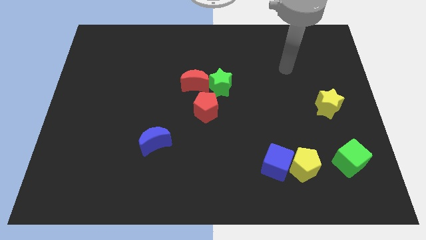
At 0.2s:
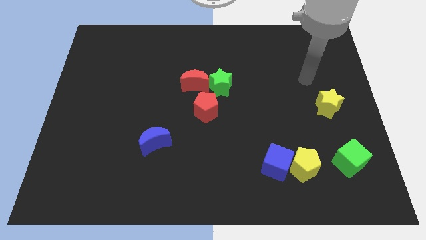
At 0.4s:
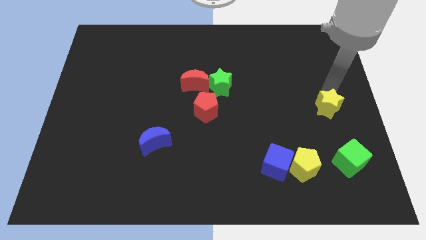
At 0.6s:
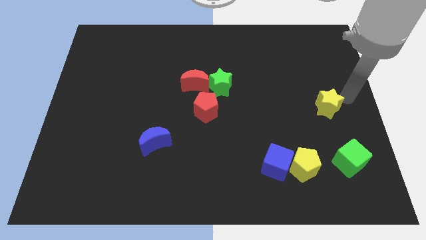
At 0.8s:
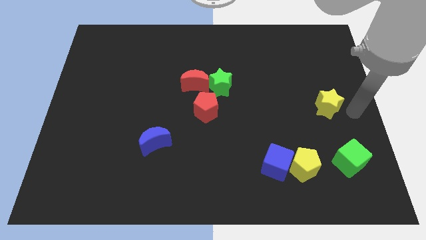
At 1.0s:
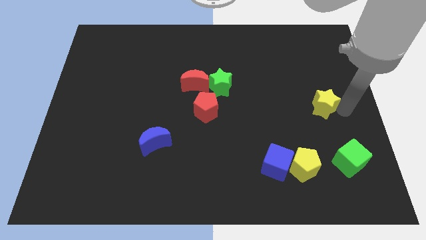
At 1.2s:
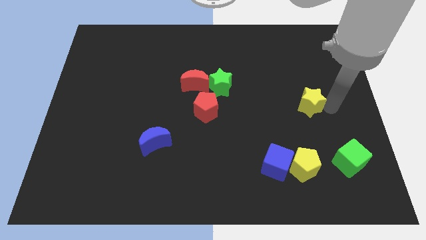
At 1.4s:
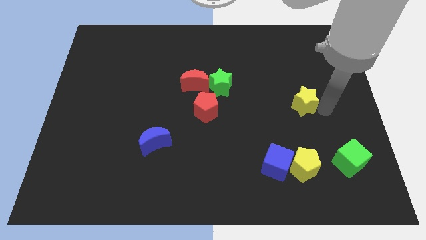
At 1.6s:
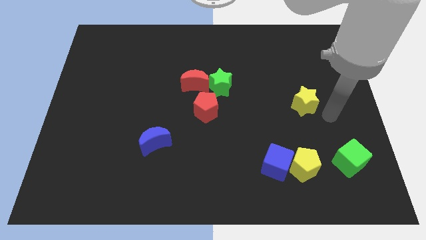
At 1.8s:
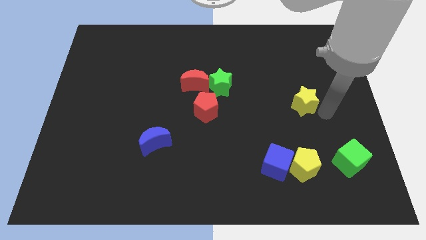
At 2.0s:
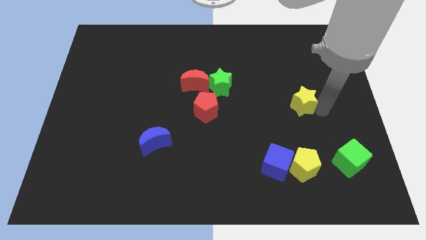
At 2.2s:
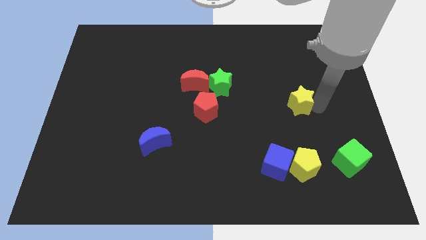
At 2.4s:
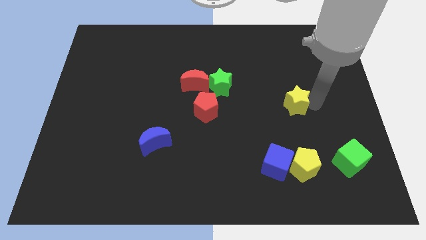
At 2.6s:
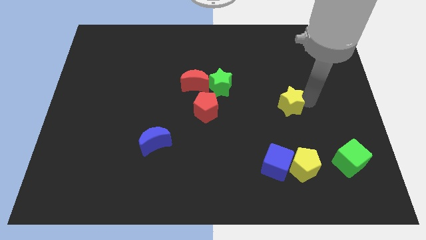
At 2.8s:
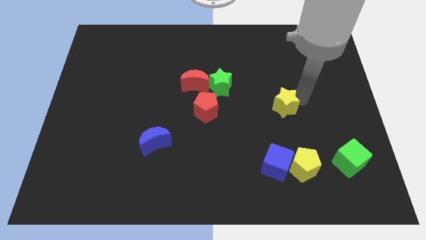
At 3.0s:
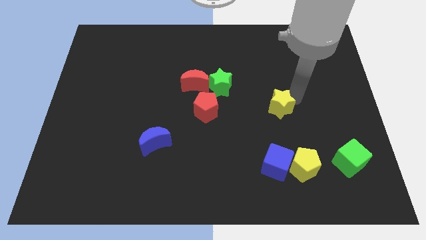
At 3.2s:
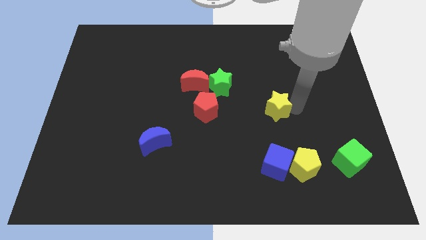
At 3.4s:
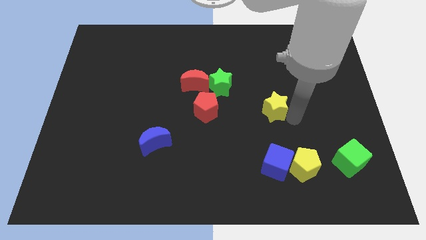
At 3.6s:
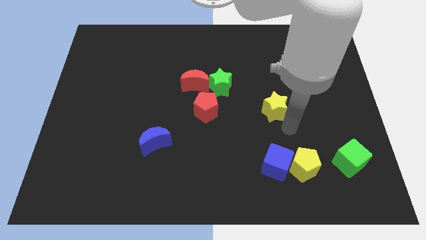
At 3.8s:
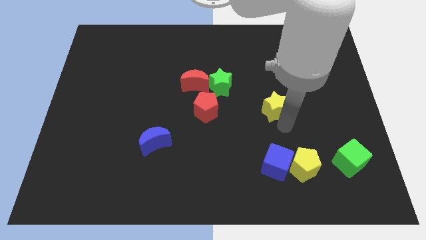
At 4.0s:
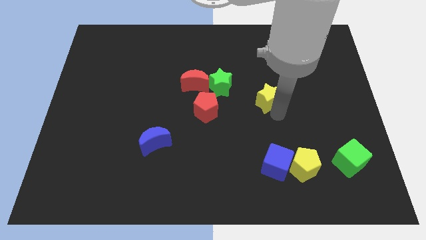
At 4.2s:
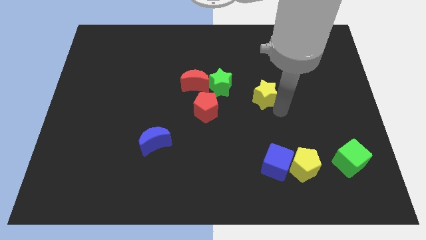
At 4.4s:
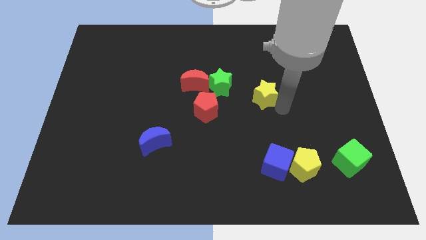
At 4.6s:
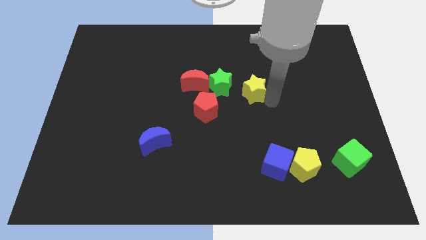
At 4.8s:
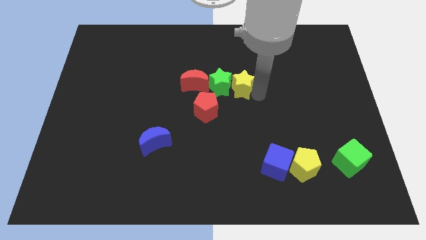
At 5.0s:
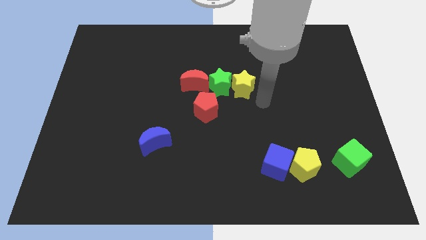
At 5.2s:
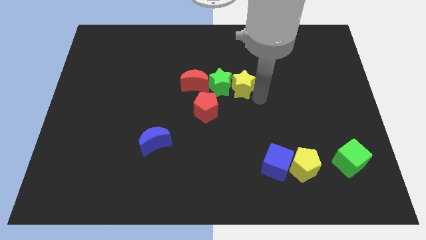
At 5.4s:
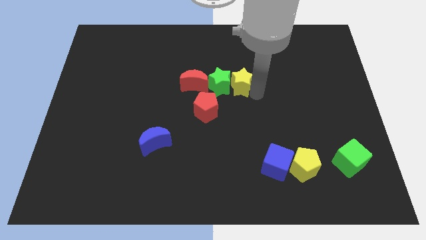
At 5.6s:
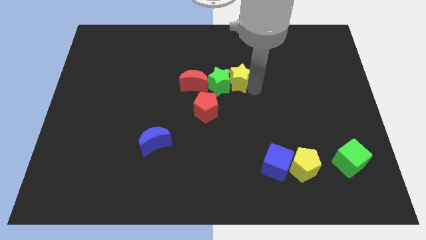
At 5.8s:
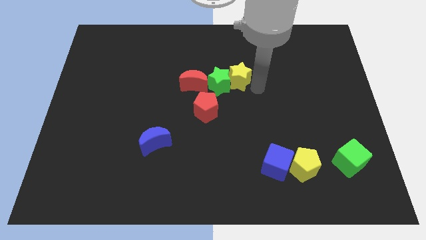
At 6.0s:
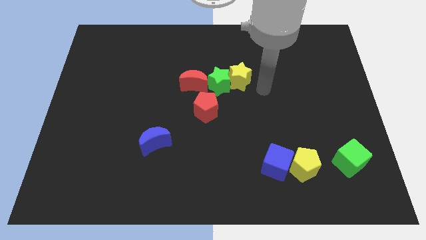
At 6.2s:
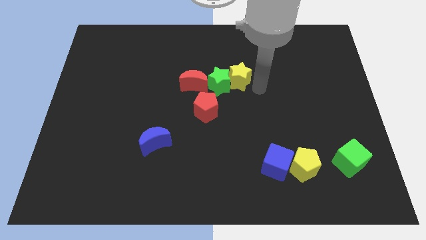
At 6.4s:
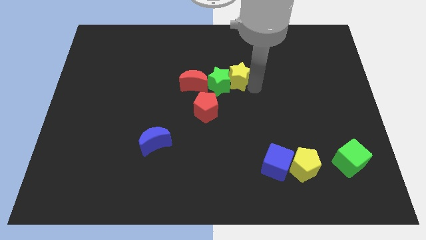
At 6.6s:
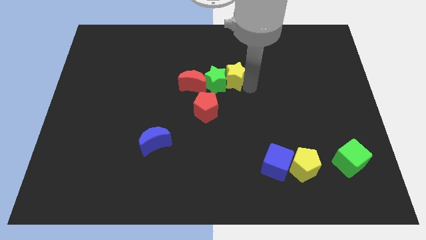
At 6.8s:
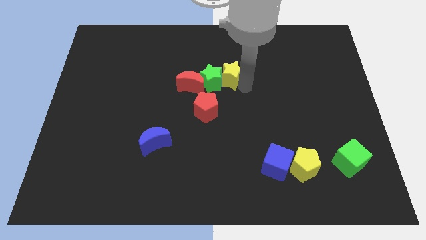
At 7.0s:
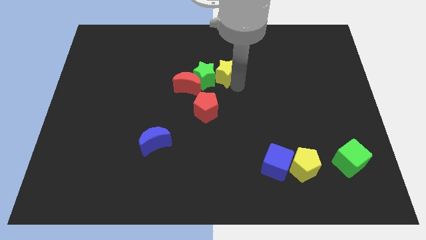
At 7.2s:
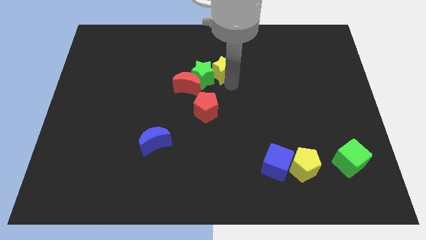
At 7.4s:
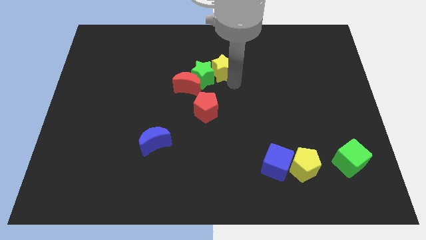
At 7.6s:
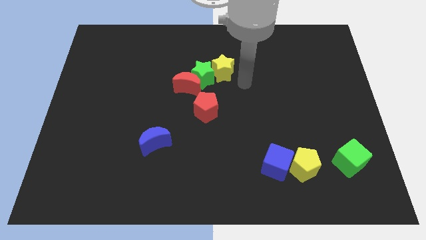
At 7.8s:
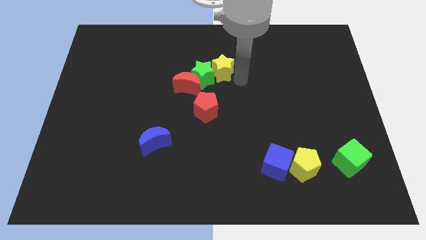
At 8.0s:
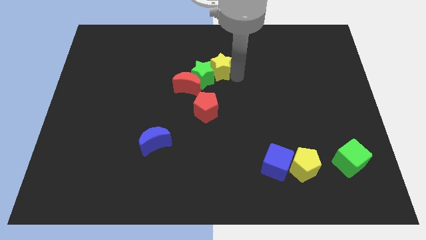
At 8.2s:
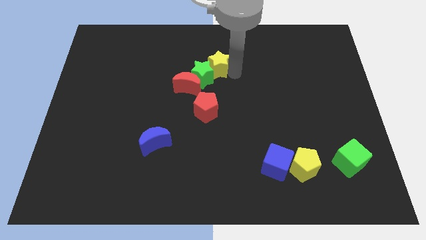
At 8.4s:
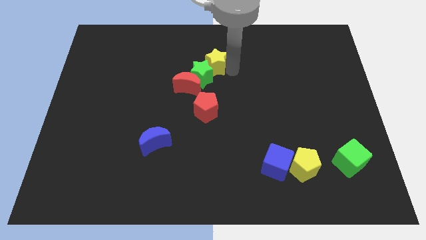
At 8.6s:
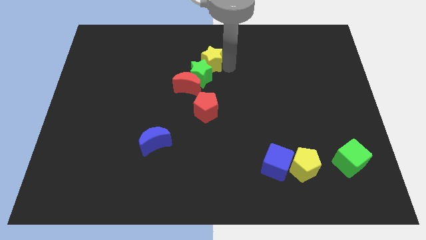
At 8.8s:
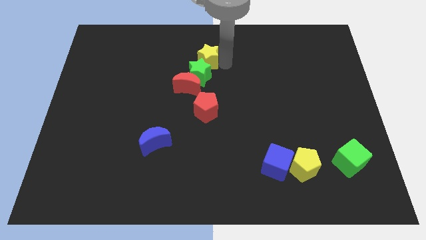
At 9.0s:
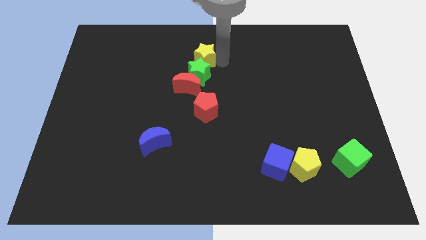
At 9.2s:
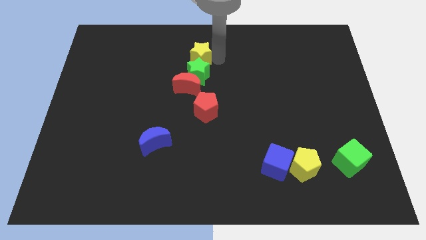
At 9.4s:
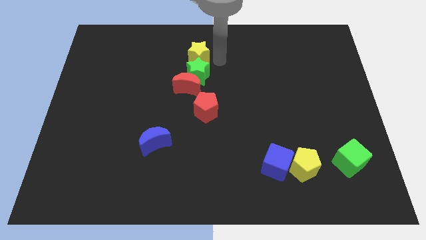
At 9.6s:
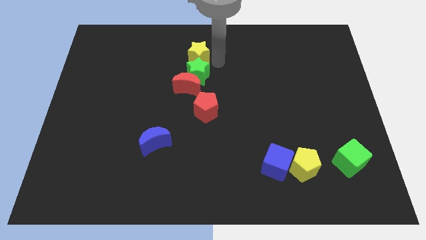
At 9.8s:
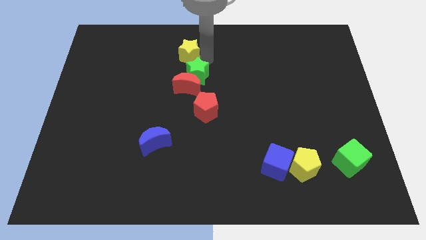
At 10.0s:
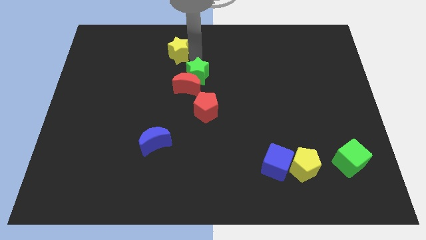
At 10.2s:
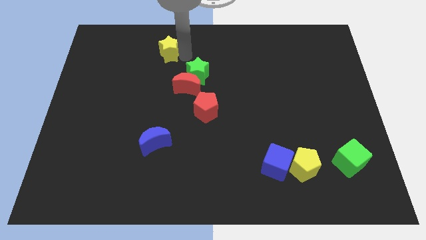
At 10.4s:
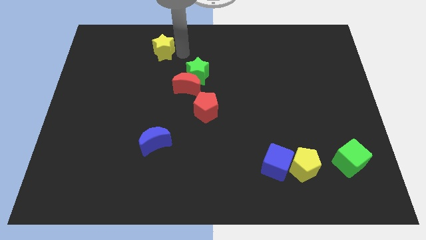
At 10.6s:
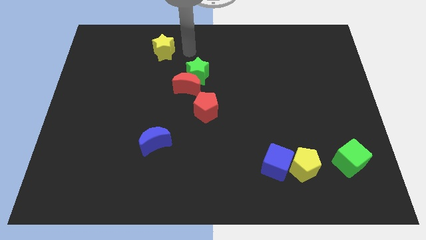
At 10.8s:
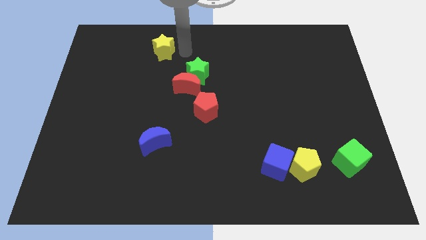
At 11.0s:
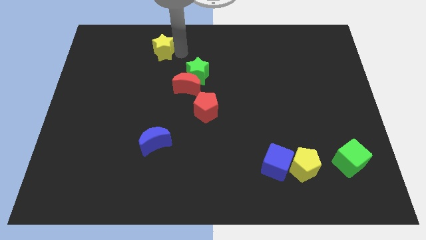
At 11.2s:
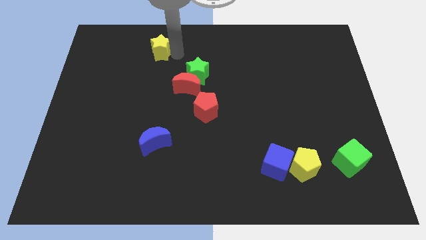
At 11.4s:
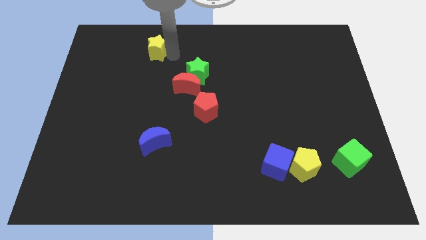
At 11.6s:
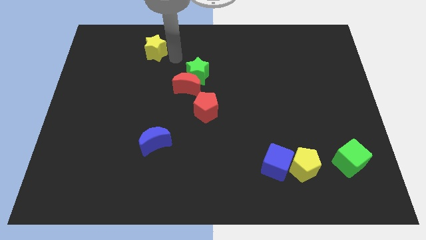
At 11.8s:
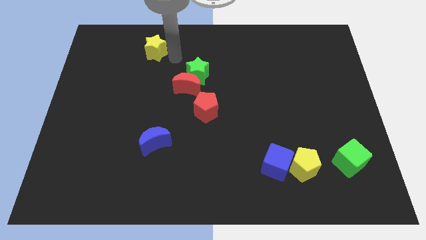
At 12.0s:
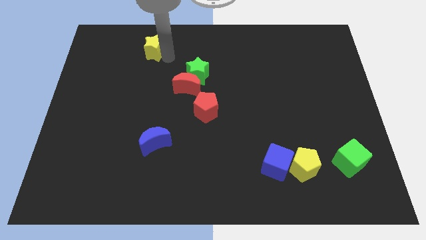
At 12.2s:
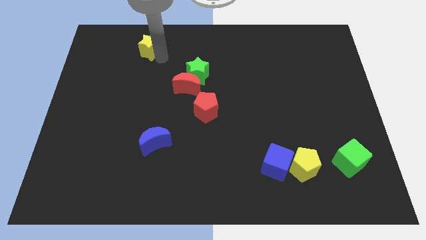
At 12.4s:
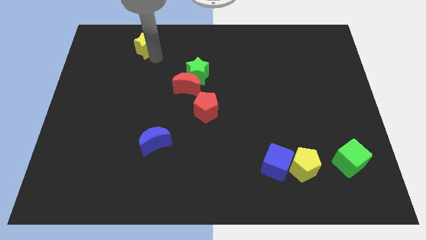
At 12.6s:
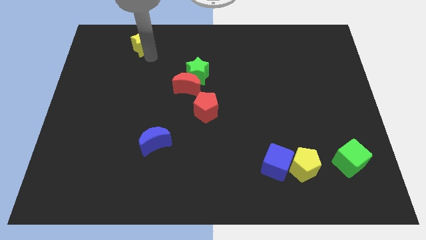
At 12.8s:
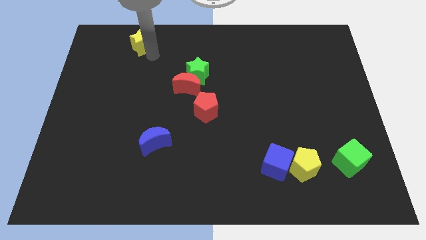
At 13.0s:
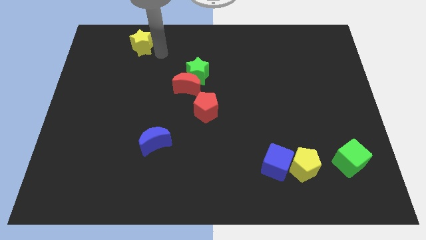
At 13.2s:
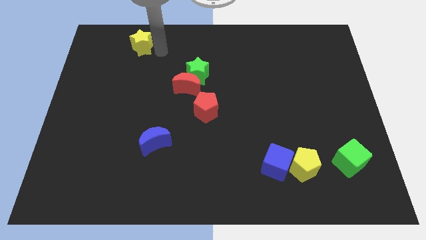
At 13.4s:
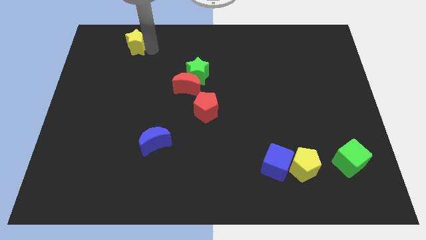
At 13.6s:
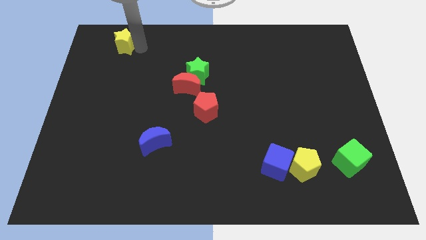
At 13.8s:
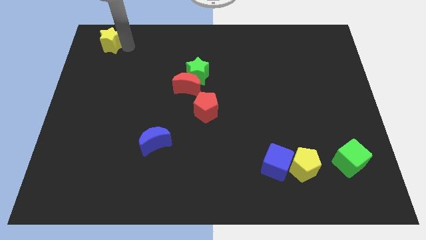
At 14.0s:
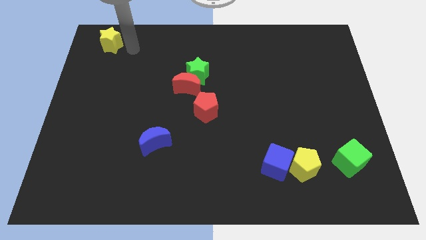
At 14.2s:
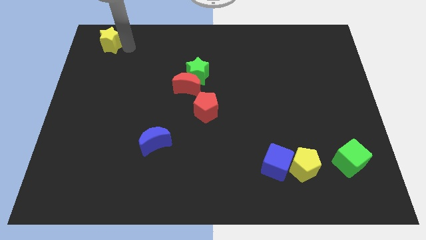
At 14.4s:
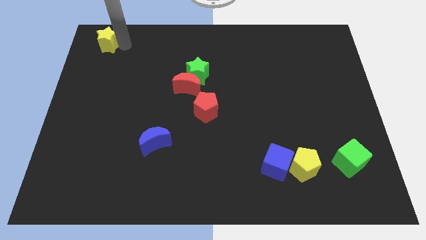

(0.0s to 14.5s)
slide the yellow star to the top left of the board
